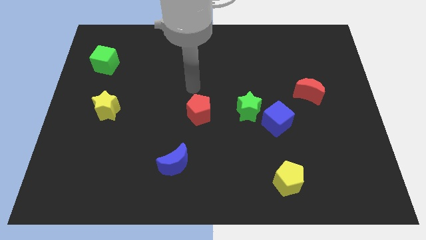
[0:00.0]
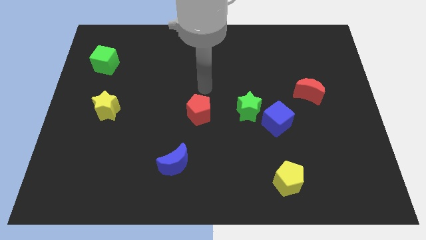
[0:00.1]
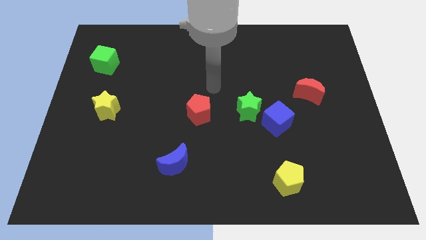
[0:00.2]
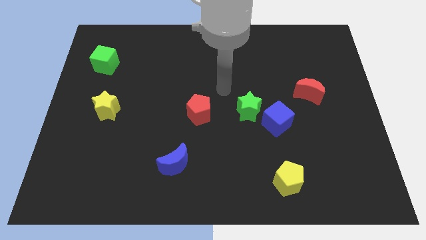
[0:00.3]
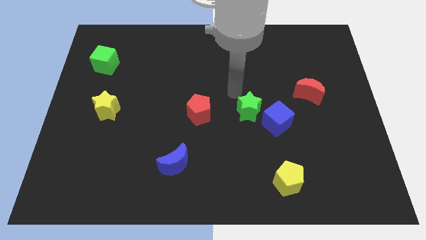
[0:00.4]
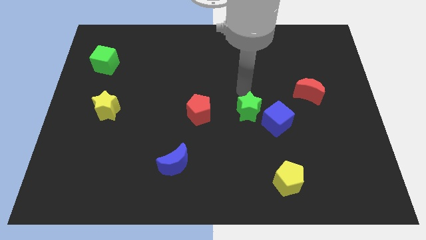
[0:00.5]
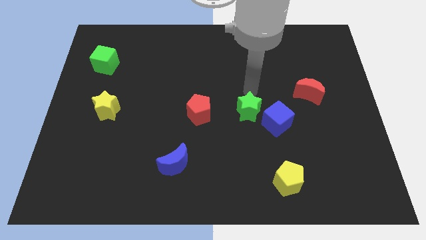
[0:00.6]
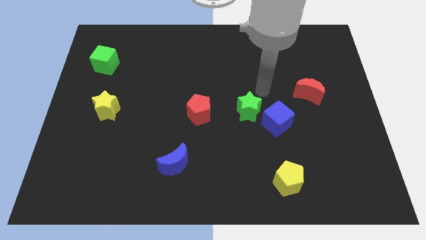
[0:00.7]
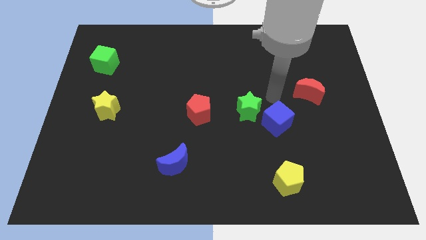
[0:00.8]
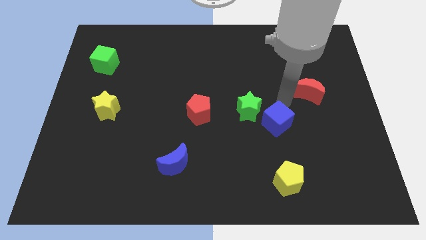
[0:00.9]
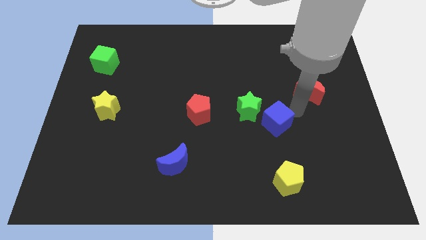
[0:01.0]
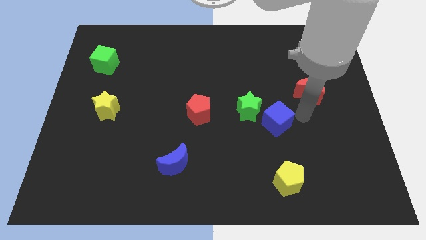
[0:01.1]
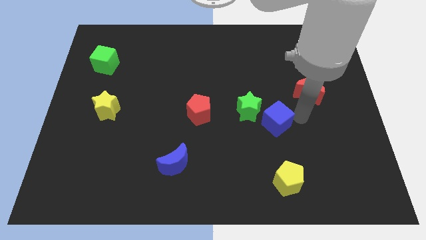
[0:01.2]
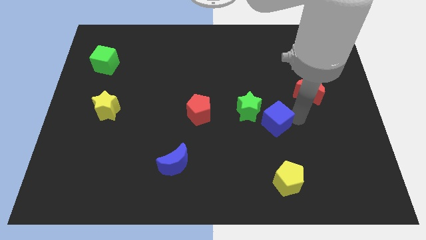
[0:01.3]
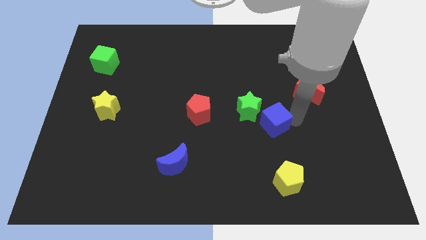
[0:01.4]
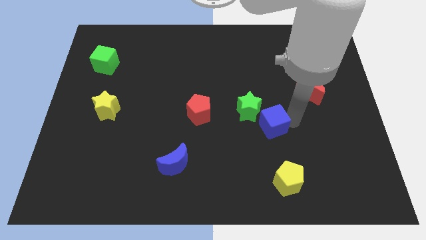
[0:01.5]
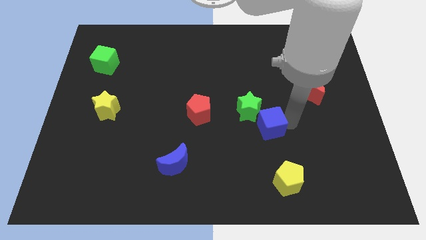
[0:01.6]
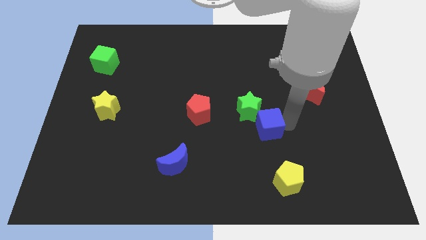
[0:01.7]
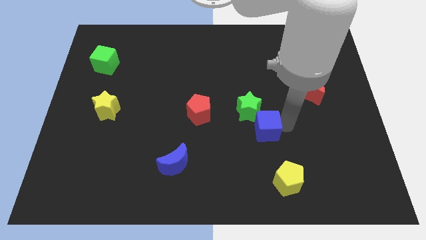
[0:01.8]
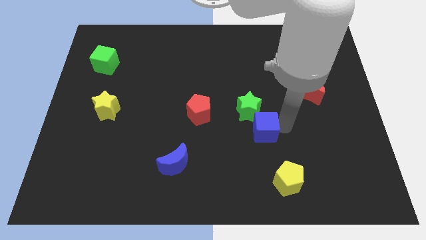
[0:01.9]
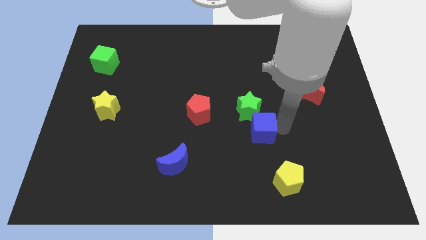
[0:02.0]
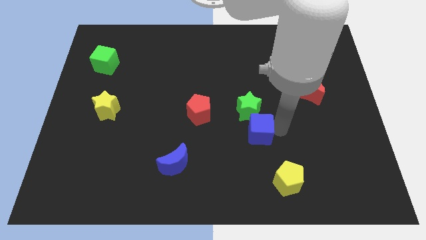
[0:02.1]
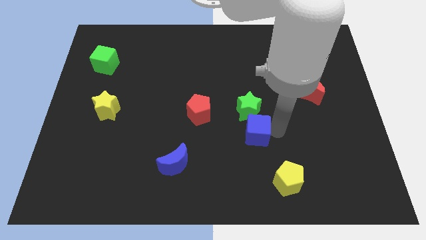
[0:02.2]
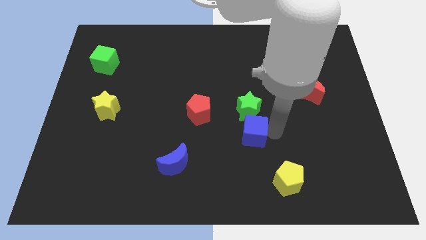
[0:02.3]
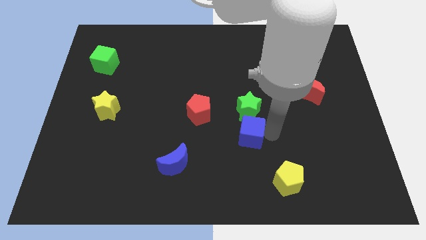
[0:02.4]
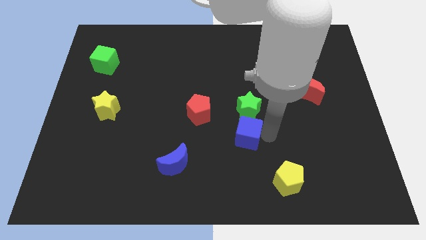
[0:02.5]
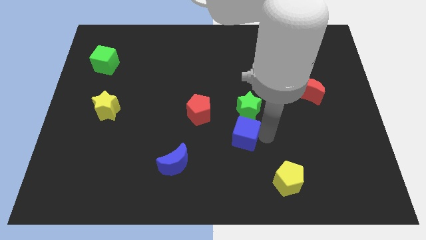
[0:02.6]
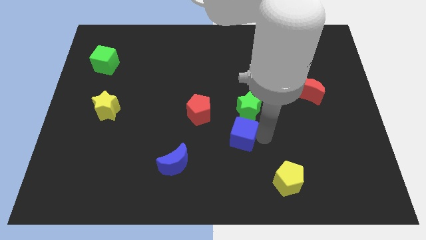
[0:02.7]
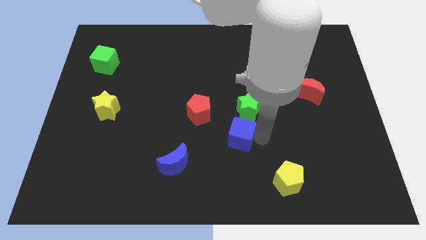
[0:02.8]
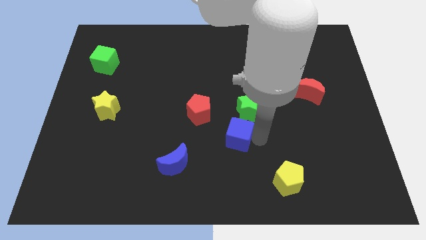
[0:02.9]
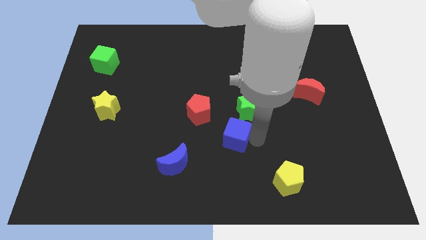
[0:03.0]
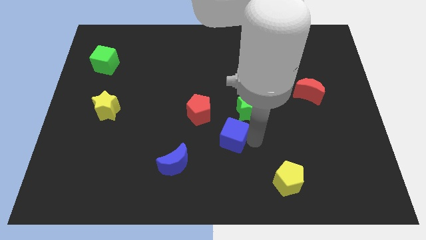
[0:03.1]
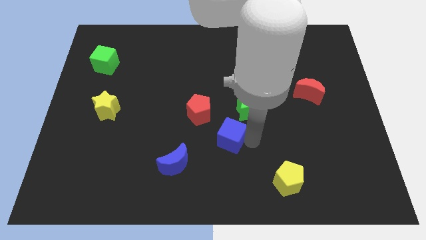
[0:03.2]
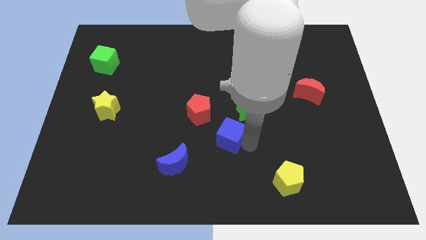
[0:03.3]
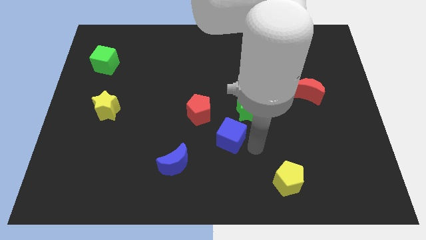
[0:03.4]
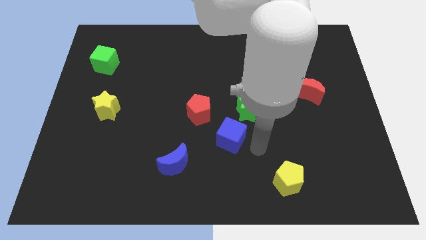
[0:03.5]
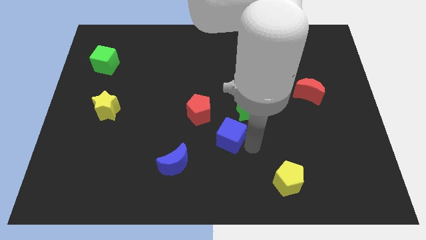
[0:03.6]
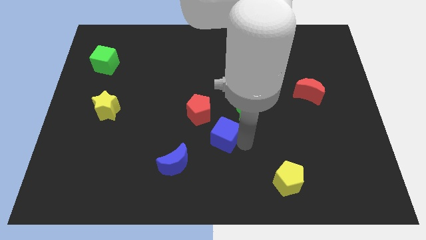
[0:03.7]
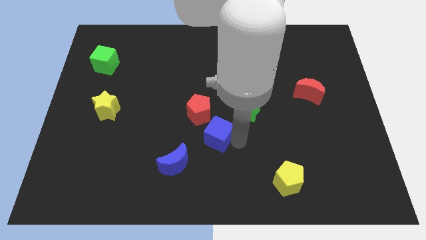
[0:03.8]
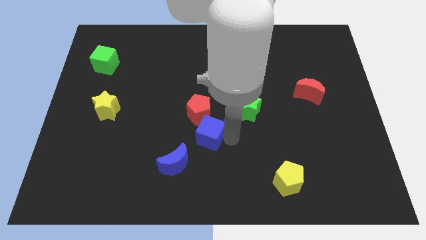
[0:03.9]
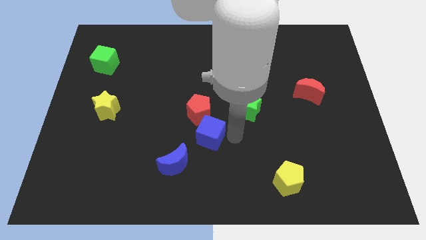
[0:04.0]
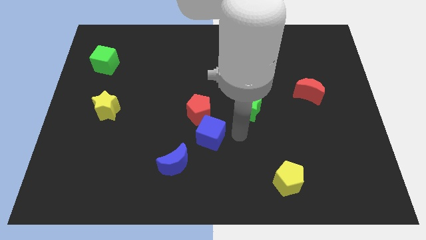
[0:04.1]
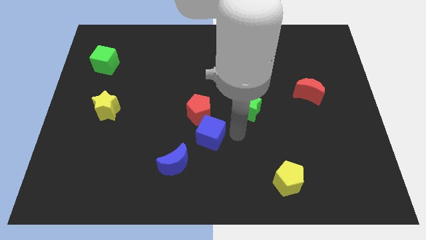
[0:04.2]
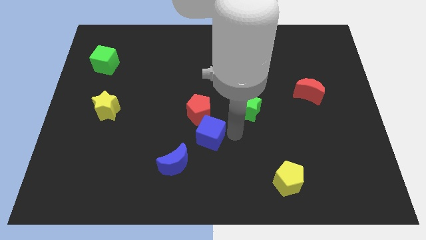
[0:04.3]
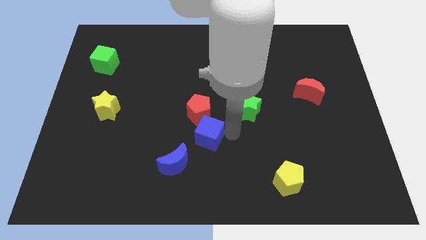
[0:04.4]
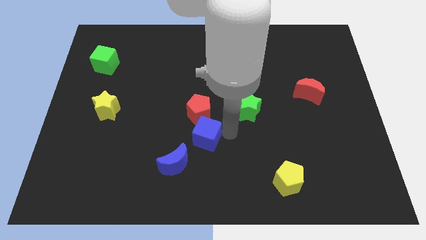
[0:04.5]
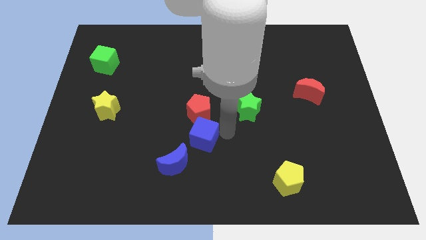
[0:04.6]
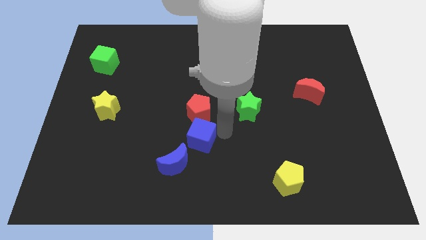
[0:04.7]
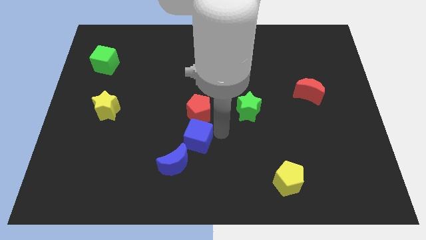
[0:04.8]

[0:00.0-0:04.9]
put the blue cube to the bottom left side of the red pentagon

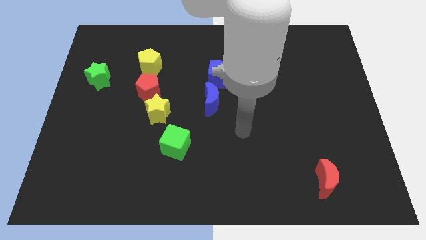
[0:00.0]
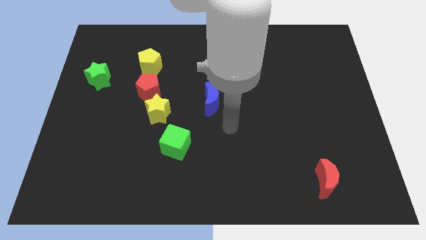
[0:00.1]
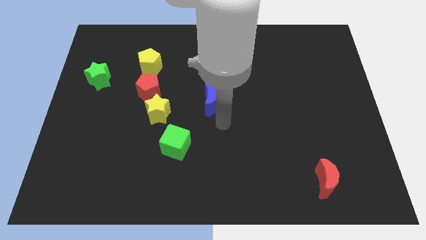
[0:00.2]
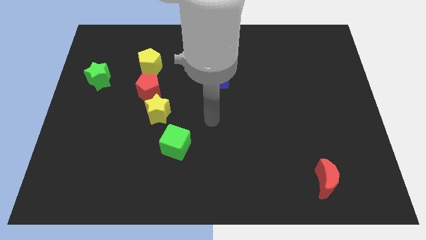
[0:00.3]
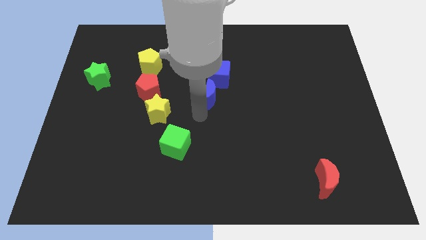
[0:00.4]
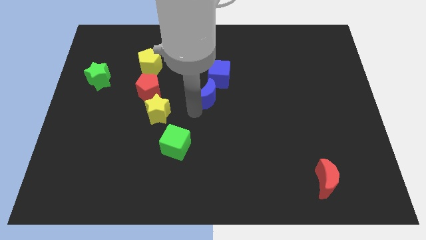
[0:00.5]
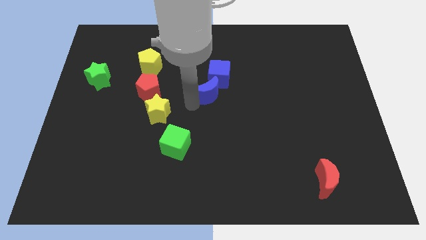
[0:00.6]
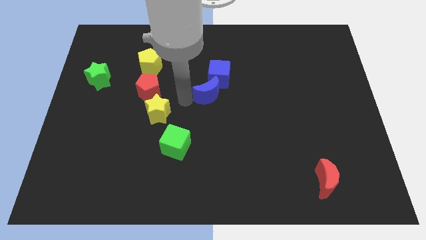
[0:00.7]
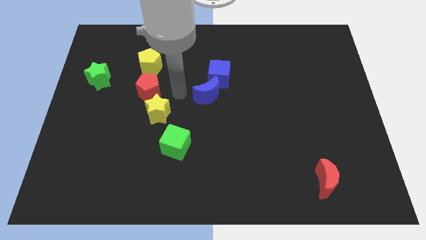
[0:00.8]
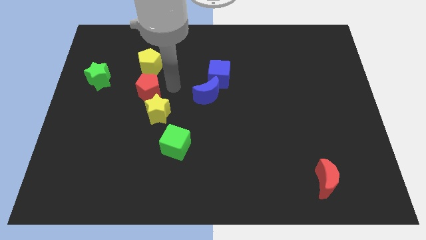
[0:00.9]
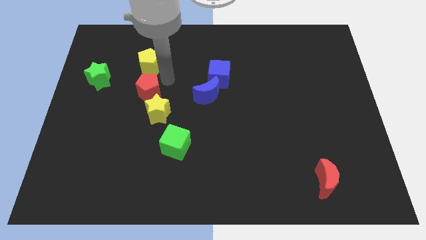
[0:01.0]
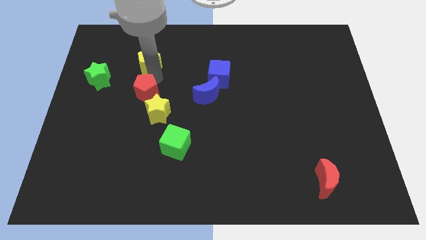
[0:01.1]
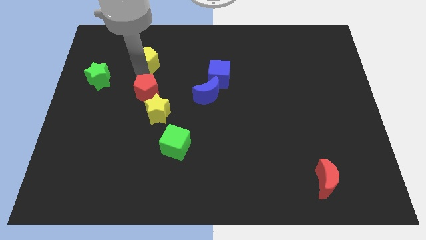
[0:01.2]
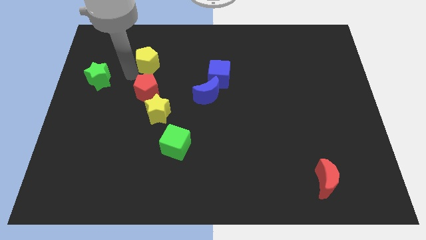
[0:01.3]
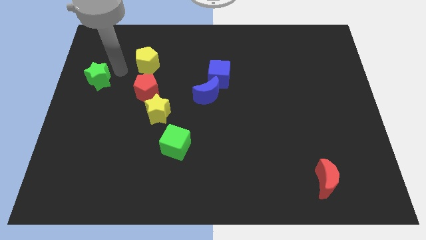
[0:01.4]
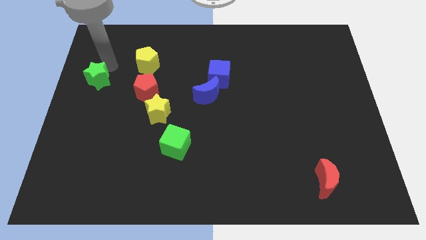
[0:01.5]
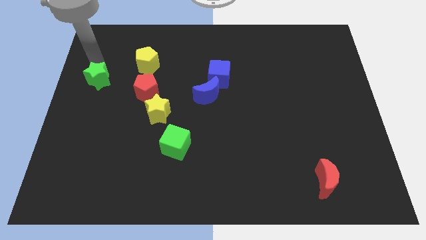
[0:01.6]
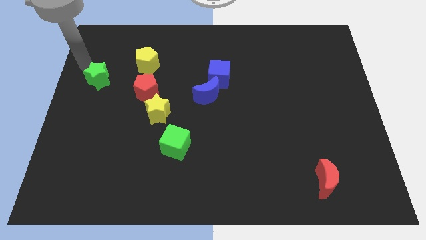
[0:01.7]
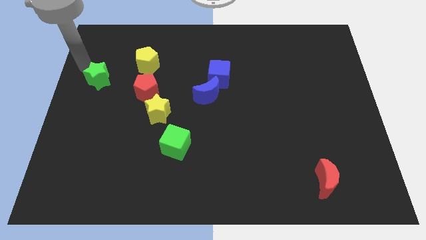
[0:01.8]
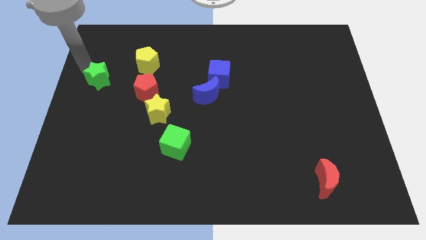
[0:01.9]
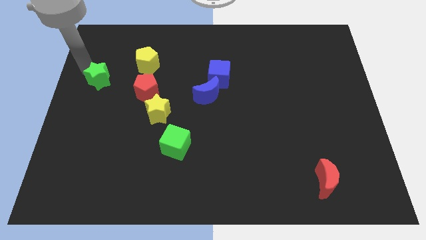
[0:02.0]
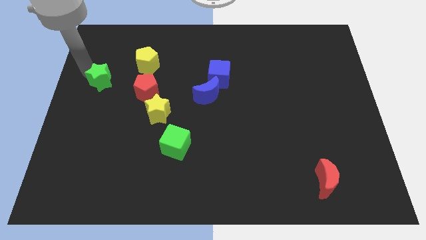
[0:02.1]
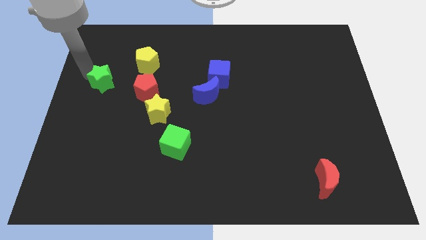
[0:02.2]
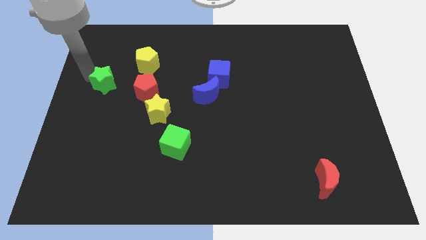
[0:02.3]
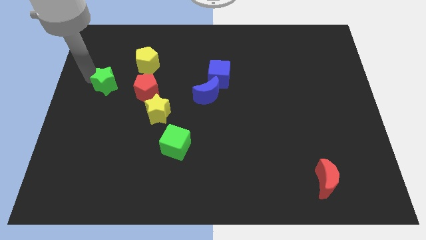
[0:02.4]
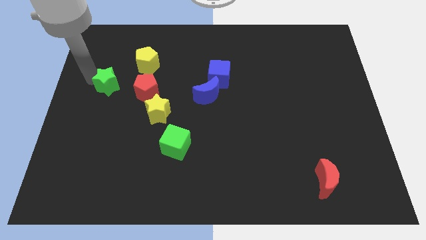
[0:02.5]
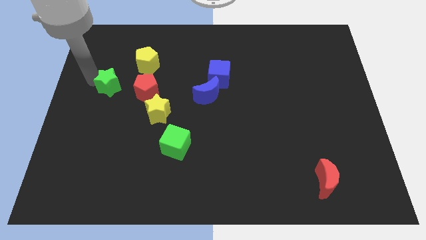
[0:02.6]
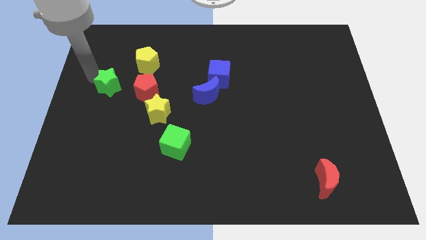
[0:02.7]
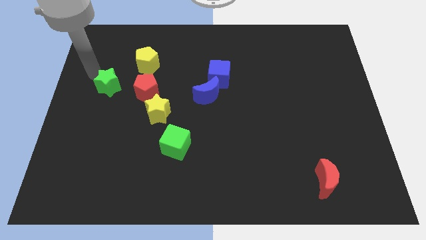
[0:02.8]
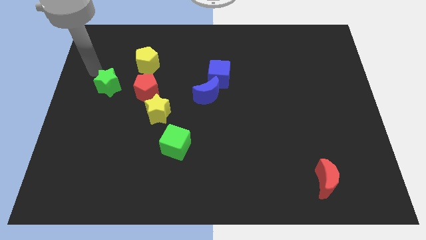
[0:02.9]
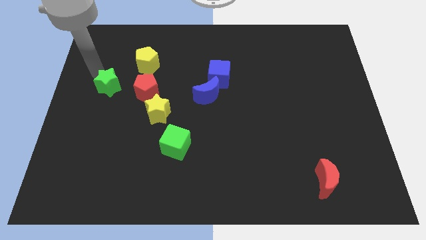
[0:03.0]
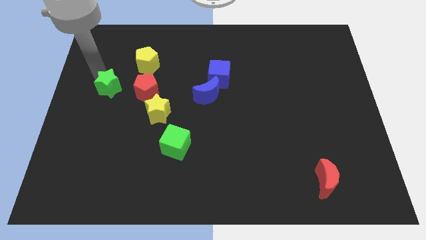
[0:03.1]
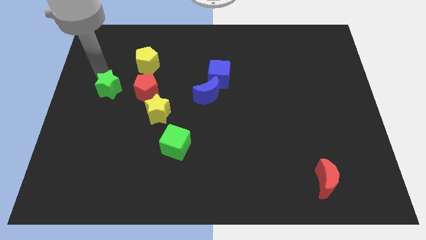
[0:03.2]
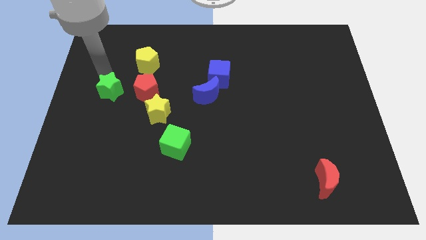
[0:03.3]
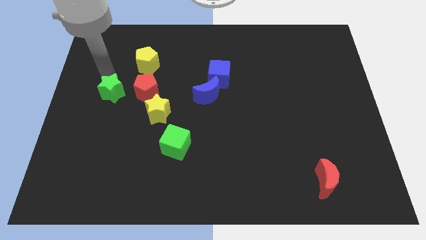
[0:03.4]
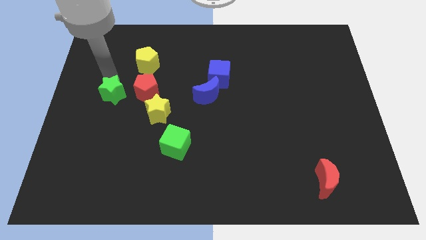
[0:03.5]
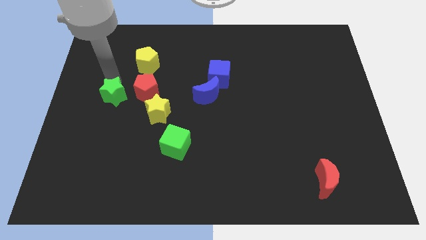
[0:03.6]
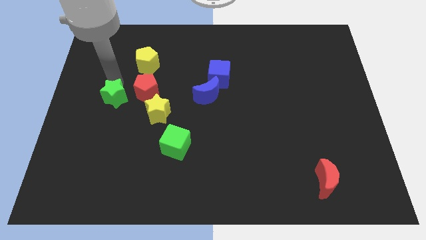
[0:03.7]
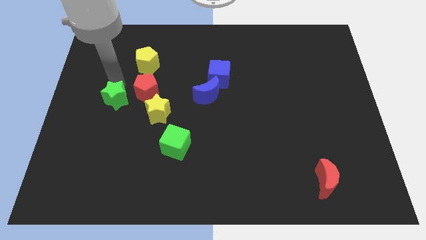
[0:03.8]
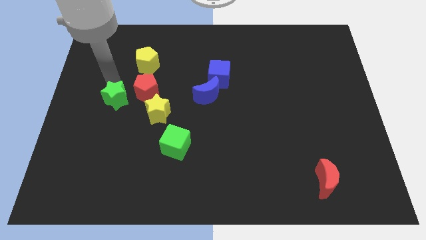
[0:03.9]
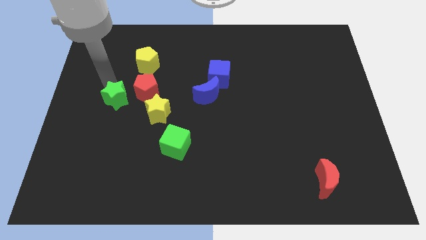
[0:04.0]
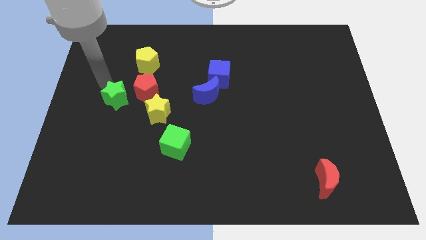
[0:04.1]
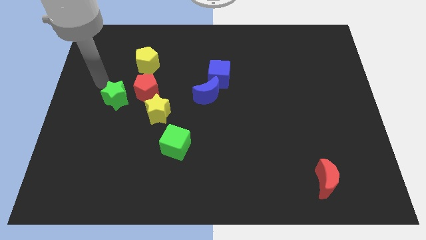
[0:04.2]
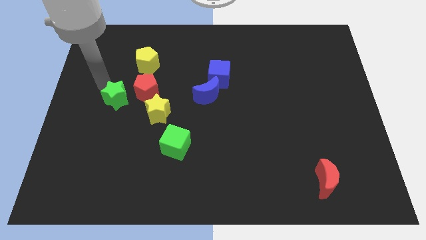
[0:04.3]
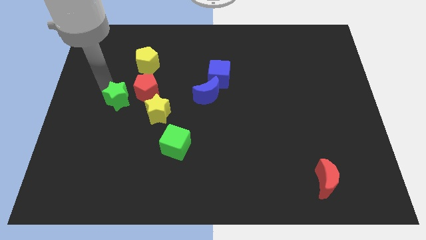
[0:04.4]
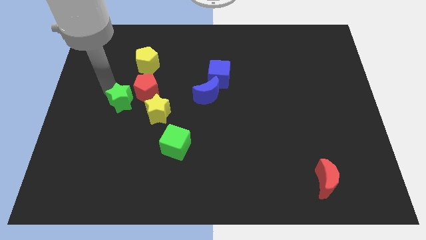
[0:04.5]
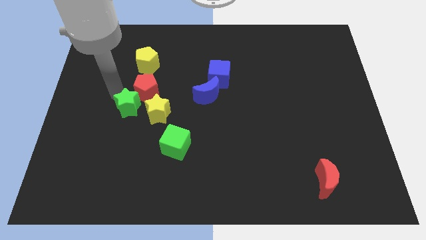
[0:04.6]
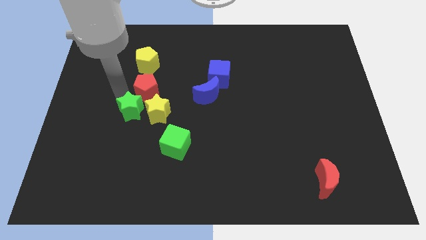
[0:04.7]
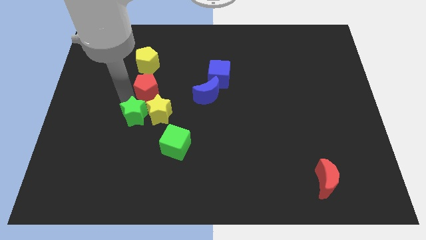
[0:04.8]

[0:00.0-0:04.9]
push the green star to the bottom left side of the yellow star
